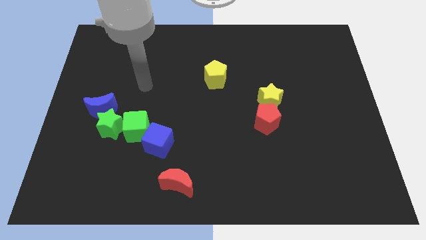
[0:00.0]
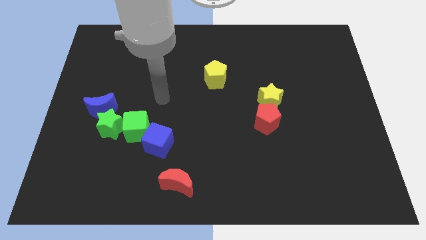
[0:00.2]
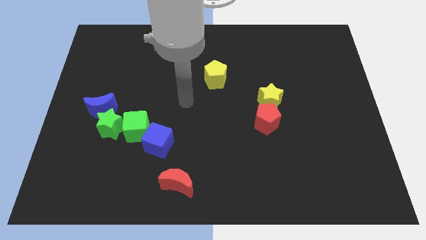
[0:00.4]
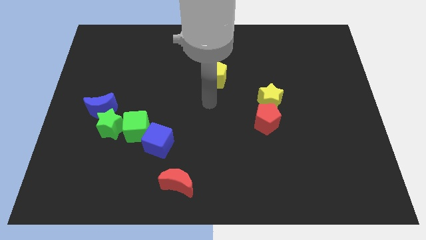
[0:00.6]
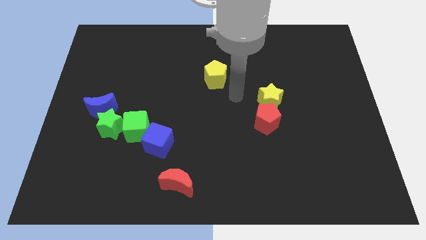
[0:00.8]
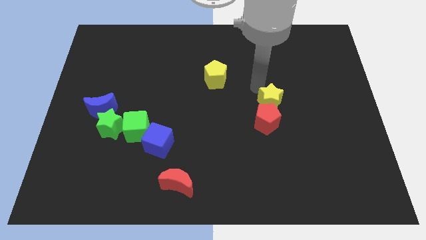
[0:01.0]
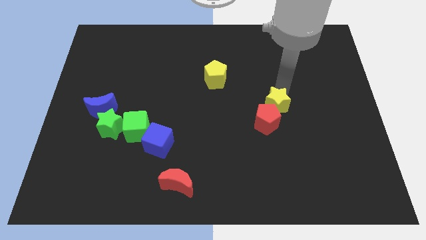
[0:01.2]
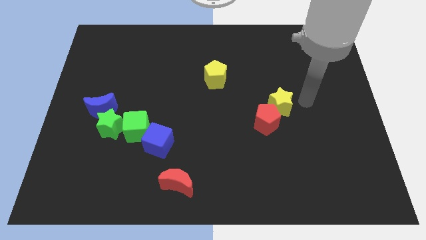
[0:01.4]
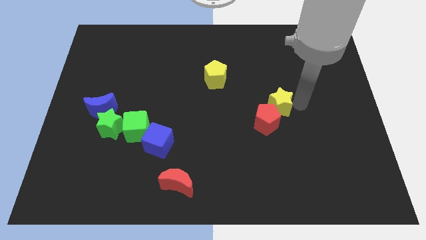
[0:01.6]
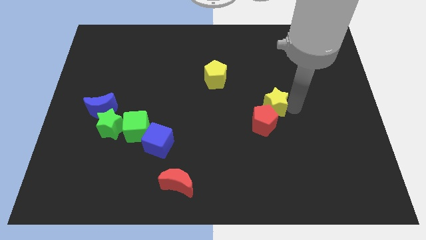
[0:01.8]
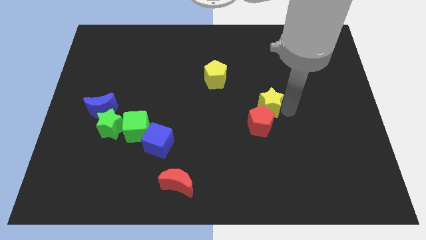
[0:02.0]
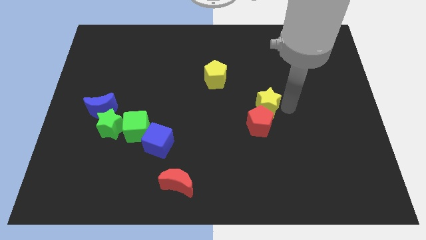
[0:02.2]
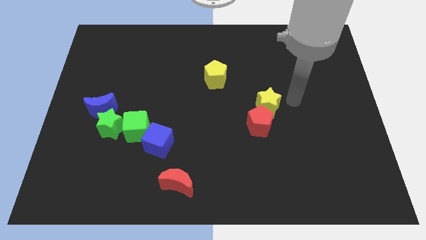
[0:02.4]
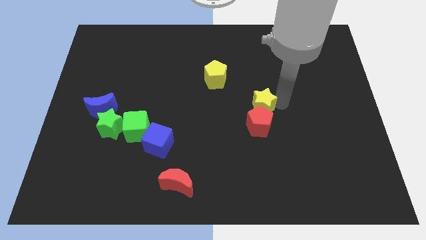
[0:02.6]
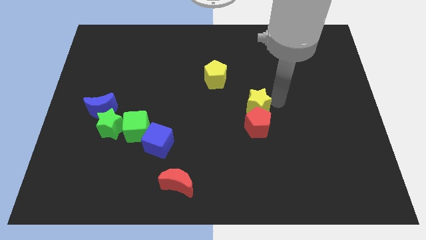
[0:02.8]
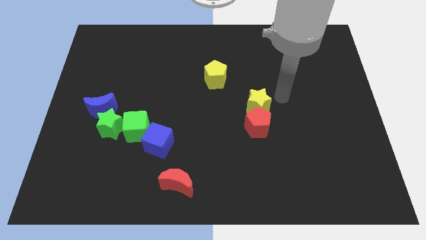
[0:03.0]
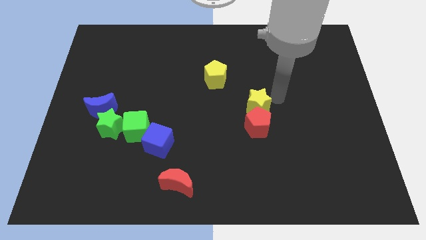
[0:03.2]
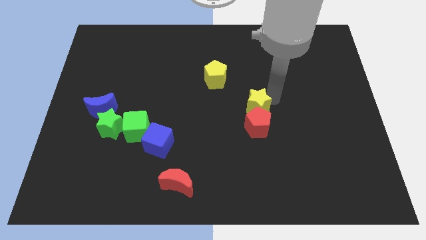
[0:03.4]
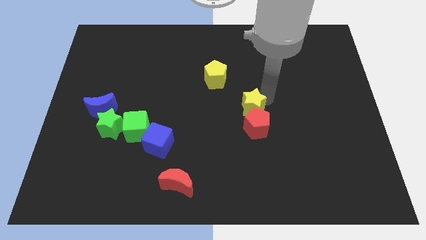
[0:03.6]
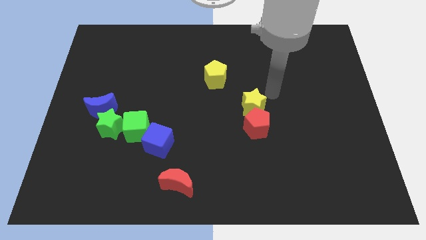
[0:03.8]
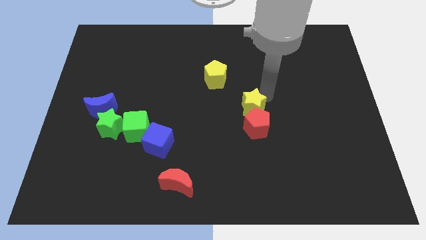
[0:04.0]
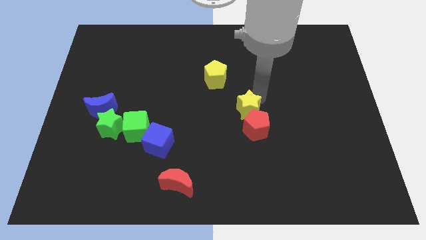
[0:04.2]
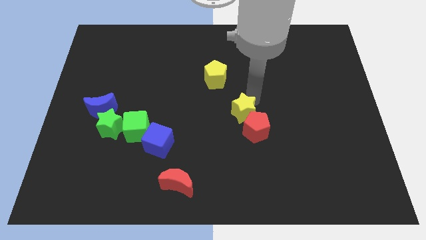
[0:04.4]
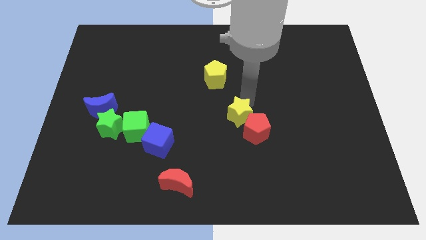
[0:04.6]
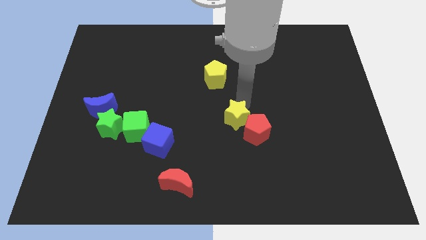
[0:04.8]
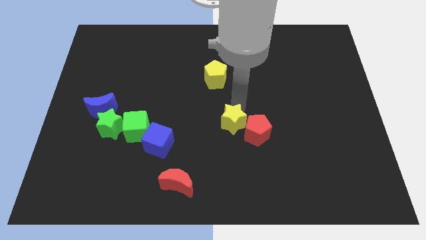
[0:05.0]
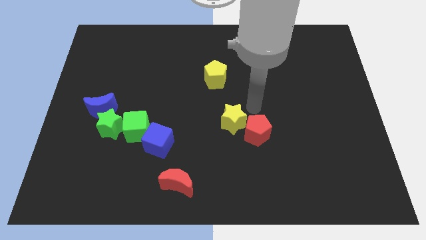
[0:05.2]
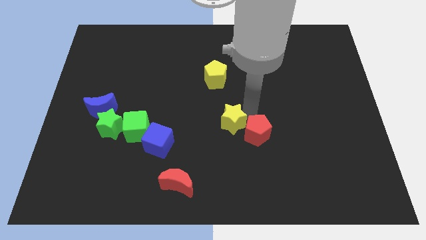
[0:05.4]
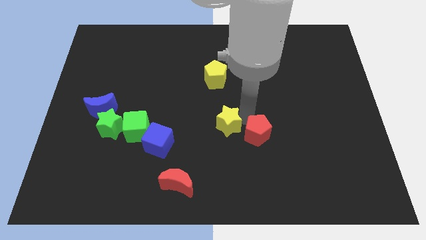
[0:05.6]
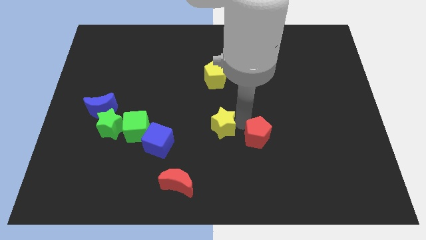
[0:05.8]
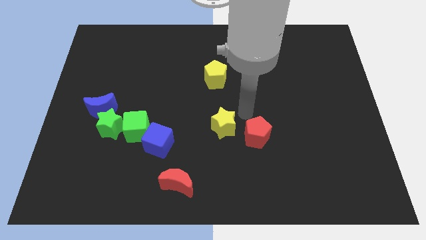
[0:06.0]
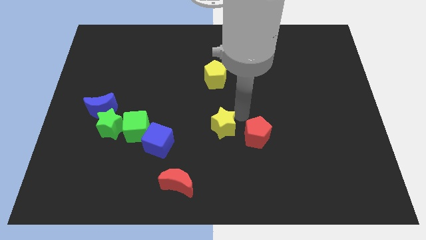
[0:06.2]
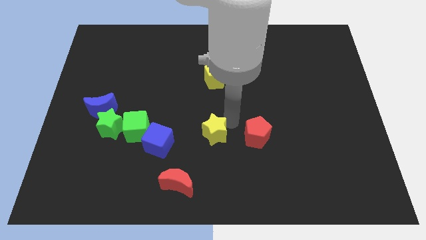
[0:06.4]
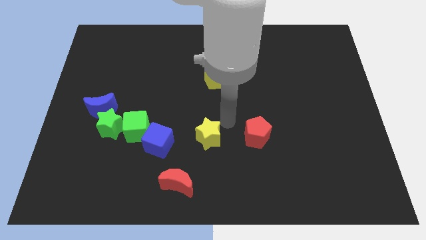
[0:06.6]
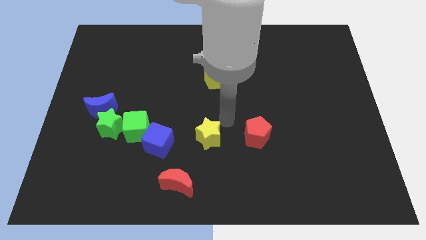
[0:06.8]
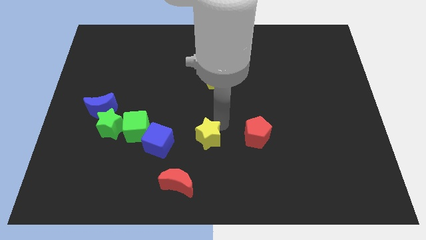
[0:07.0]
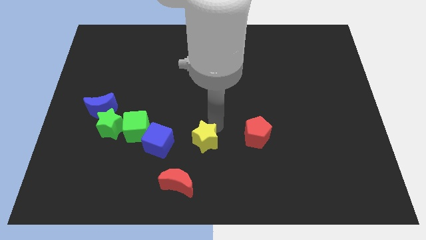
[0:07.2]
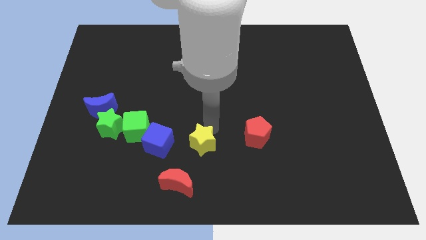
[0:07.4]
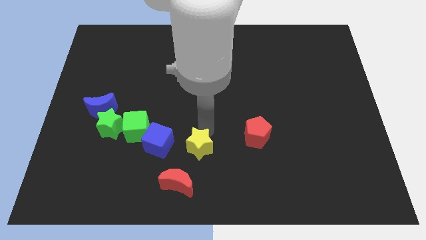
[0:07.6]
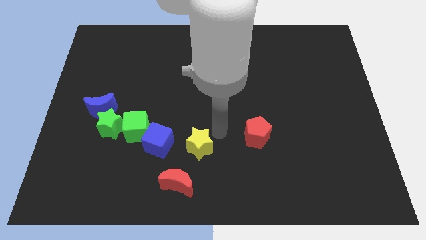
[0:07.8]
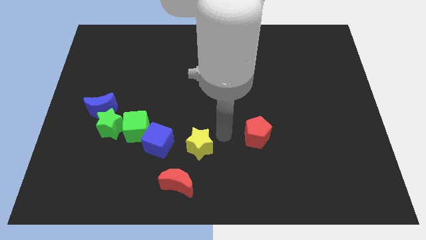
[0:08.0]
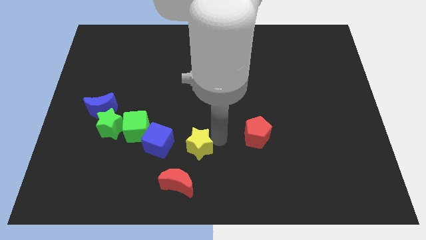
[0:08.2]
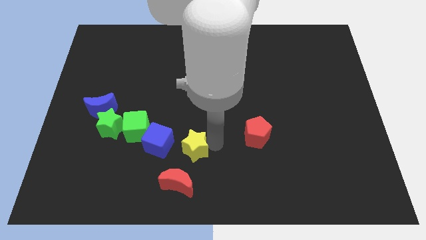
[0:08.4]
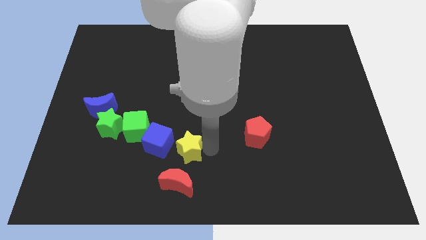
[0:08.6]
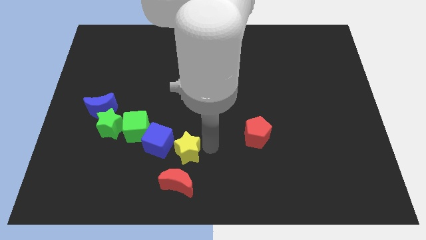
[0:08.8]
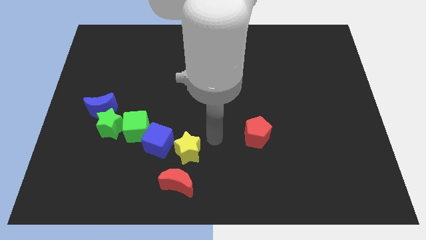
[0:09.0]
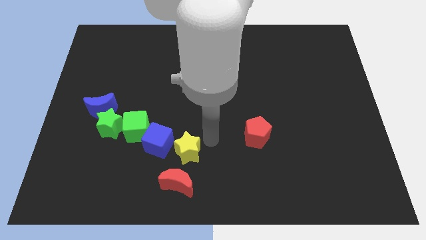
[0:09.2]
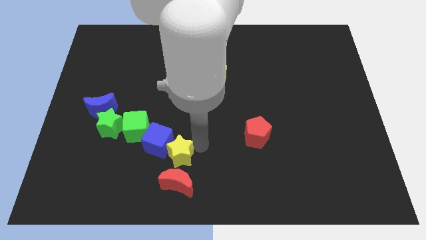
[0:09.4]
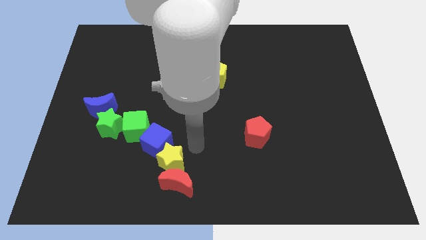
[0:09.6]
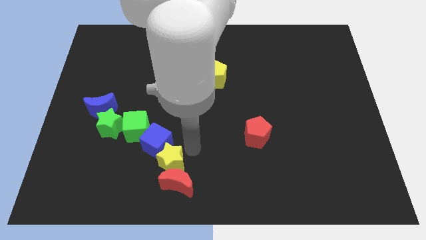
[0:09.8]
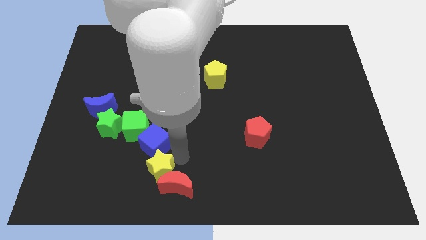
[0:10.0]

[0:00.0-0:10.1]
move the yellow star to the left of the red moon

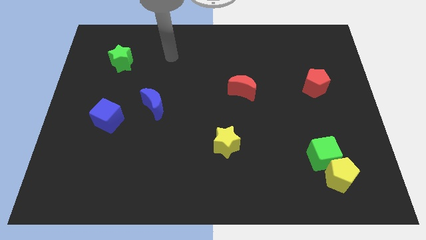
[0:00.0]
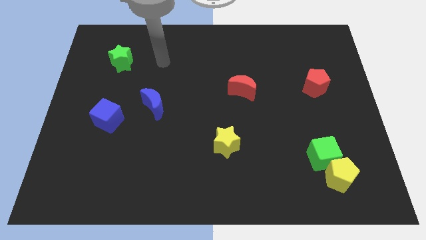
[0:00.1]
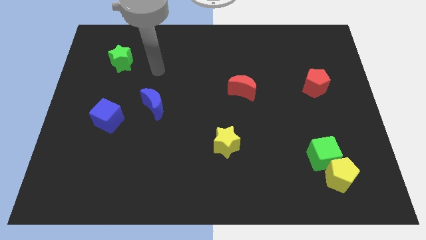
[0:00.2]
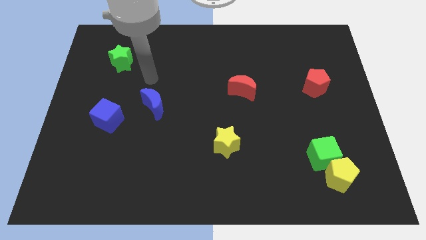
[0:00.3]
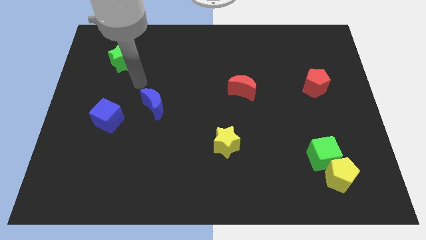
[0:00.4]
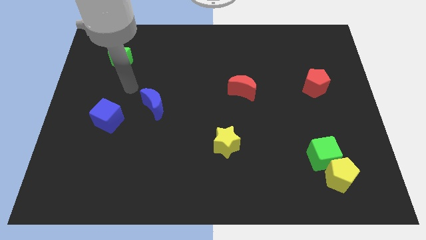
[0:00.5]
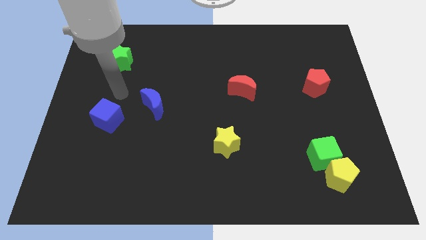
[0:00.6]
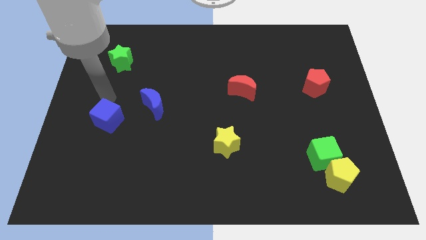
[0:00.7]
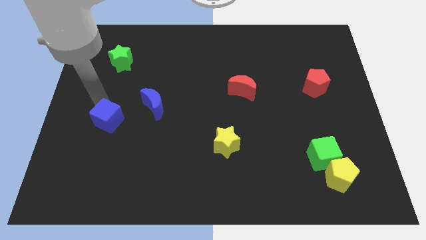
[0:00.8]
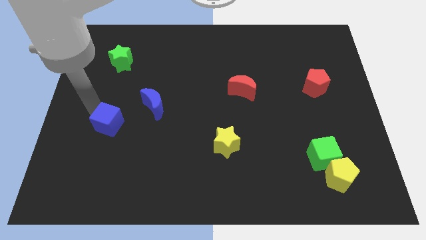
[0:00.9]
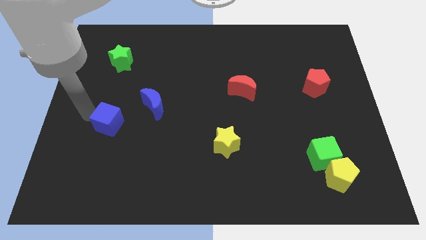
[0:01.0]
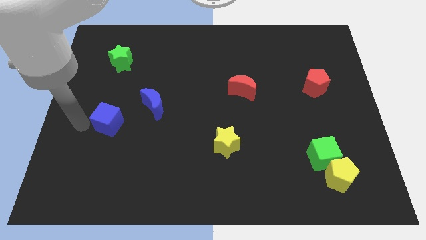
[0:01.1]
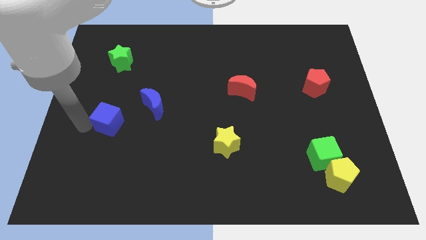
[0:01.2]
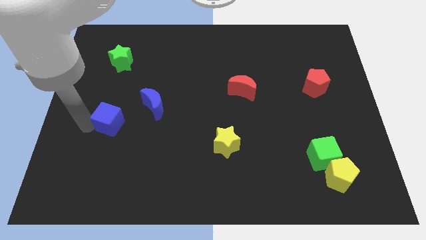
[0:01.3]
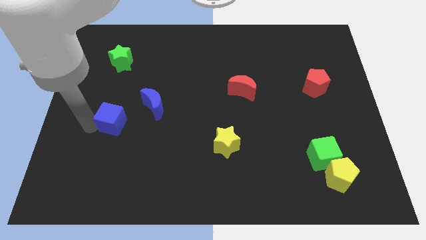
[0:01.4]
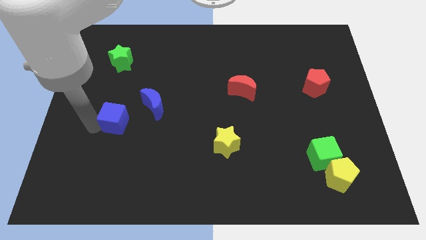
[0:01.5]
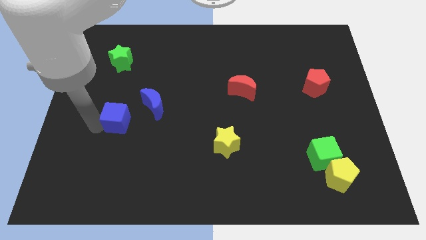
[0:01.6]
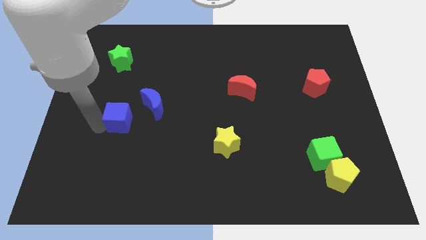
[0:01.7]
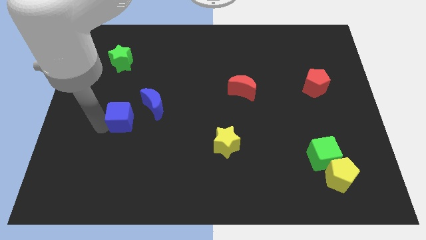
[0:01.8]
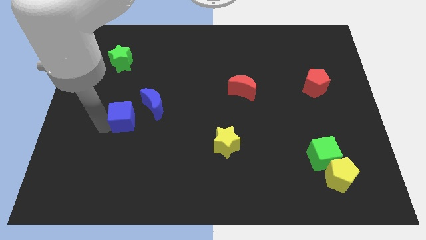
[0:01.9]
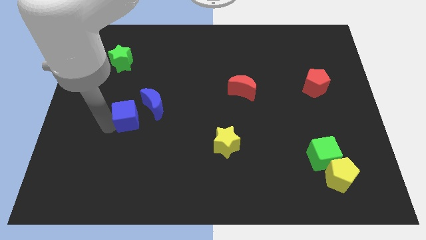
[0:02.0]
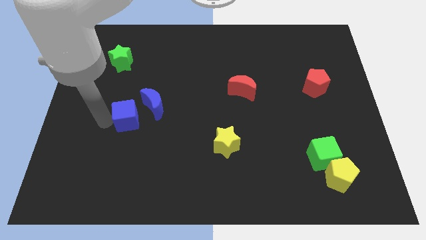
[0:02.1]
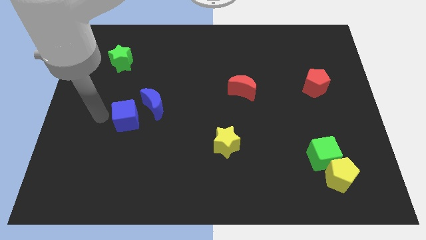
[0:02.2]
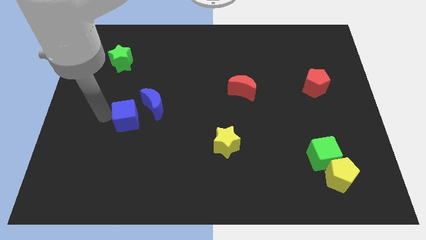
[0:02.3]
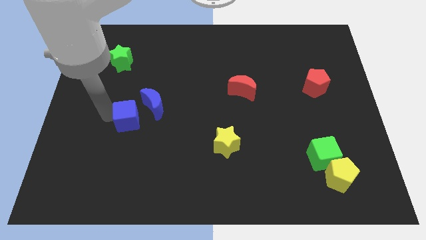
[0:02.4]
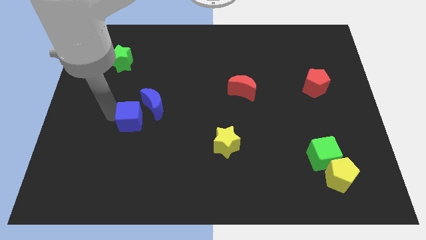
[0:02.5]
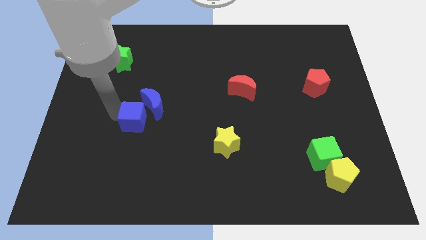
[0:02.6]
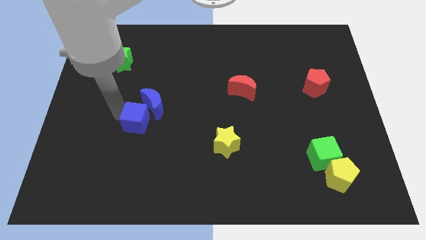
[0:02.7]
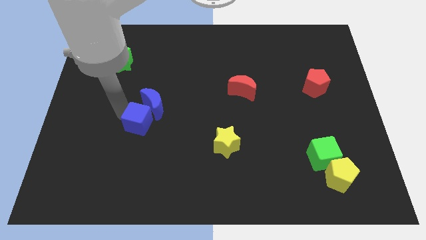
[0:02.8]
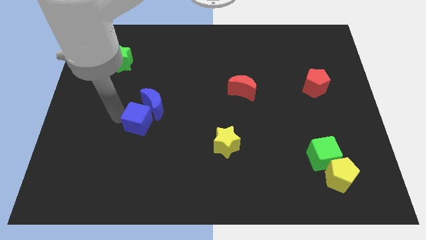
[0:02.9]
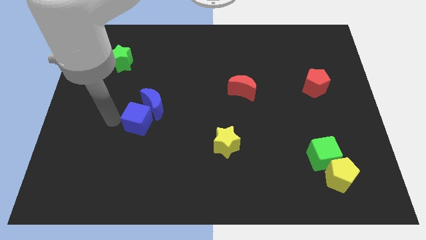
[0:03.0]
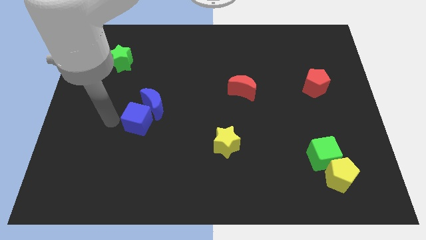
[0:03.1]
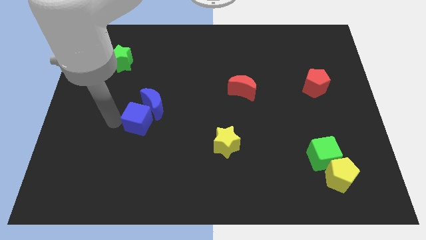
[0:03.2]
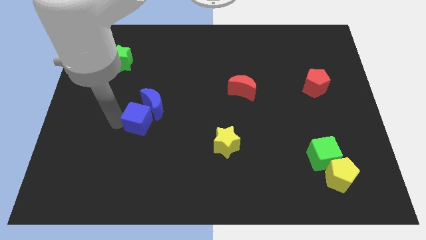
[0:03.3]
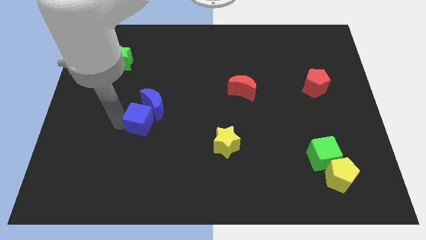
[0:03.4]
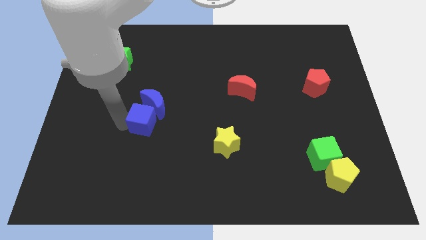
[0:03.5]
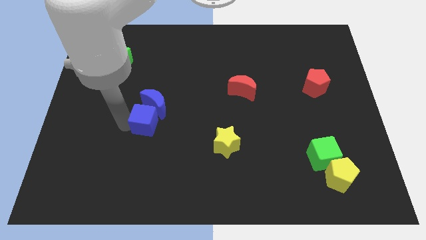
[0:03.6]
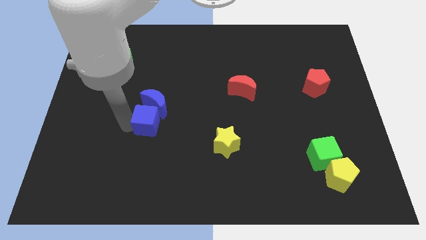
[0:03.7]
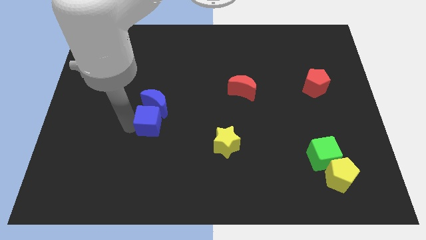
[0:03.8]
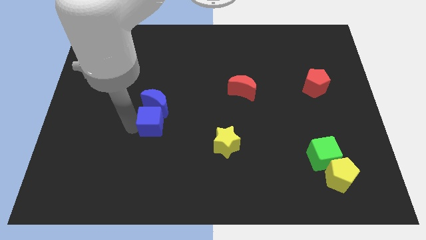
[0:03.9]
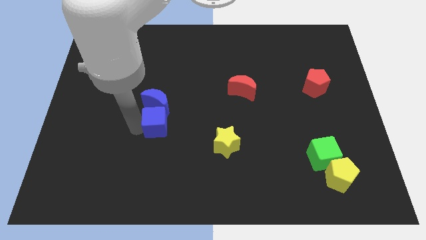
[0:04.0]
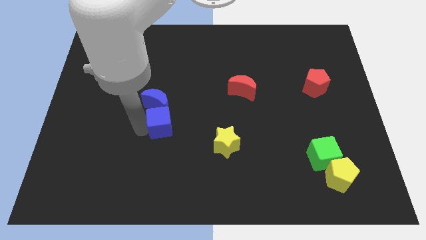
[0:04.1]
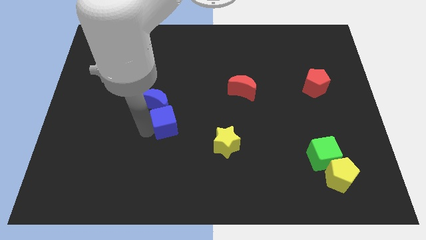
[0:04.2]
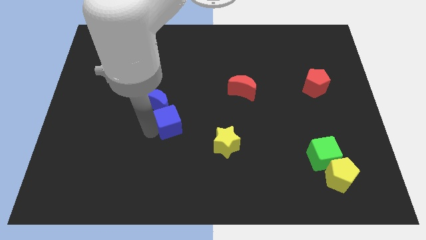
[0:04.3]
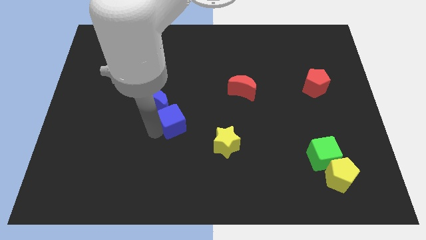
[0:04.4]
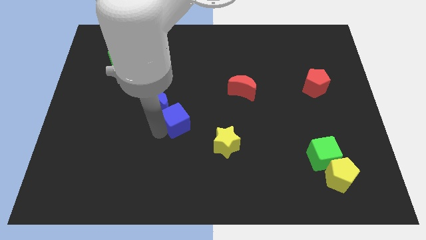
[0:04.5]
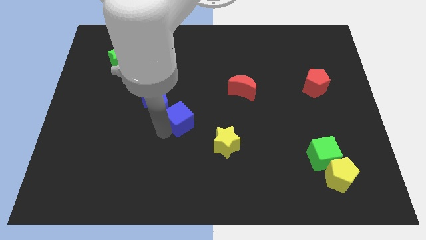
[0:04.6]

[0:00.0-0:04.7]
move the blue cube just right of the blue moon
